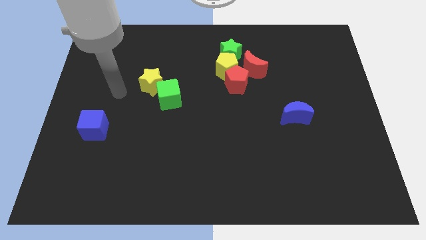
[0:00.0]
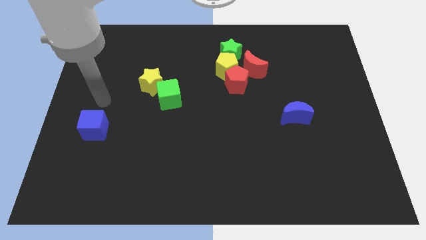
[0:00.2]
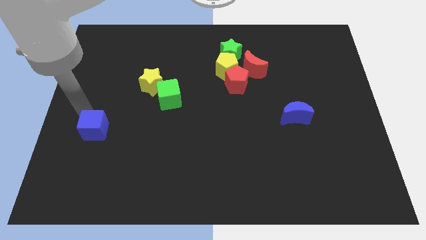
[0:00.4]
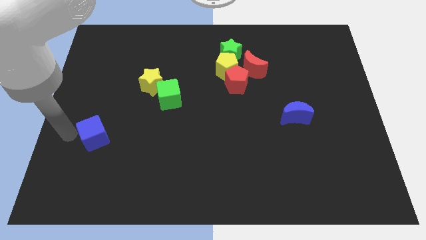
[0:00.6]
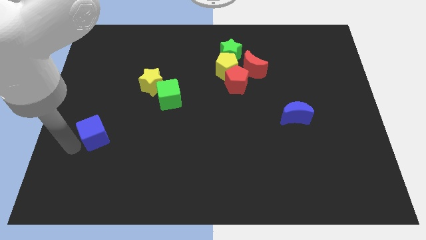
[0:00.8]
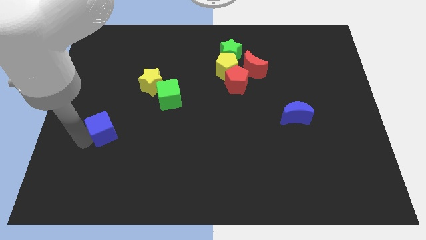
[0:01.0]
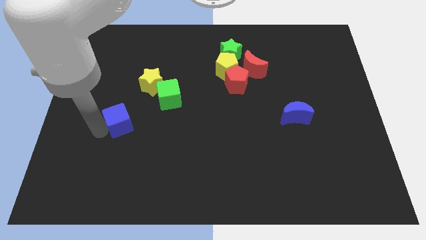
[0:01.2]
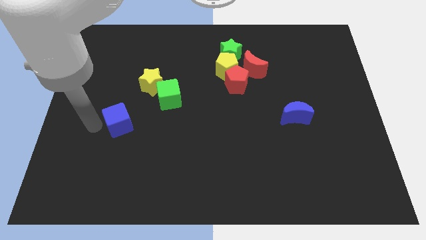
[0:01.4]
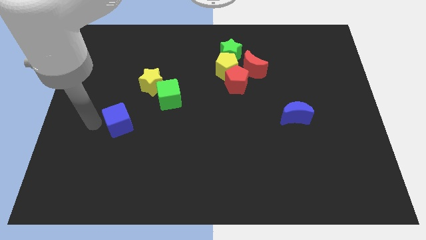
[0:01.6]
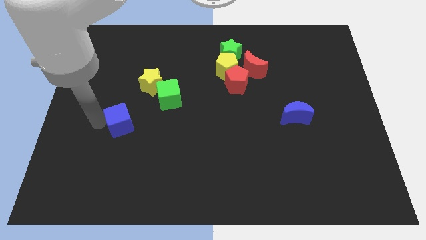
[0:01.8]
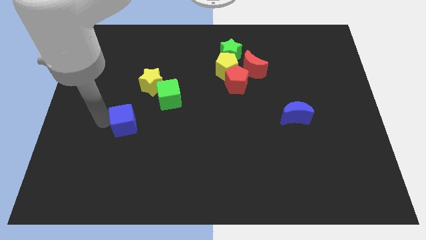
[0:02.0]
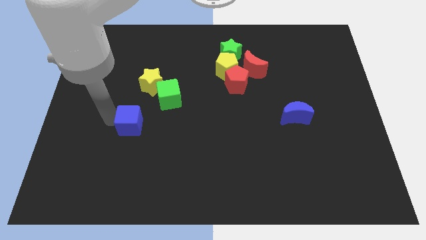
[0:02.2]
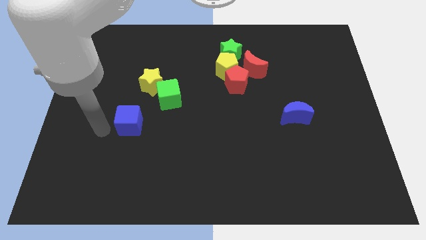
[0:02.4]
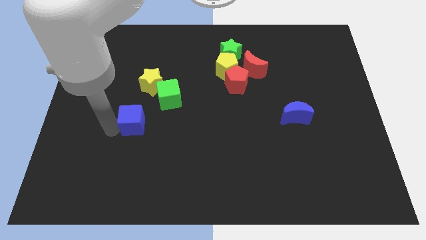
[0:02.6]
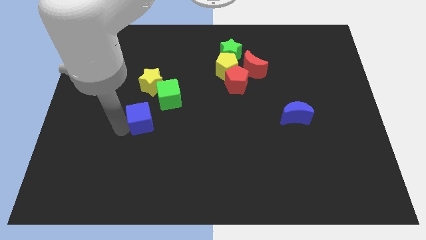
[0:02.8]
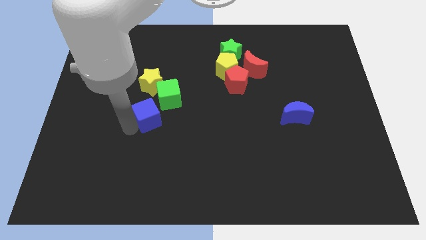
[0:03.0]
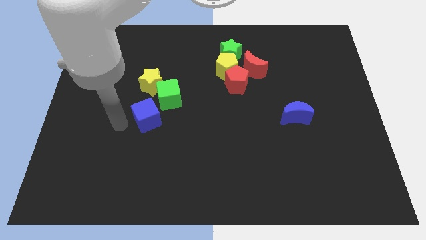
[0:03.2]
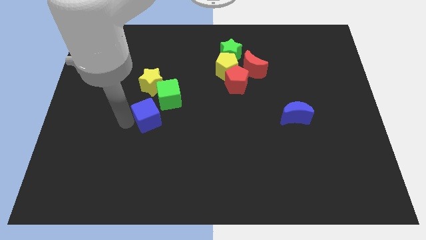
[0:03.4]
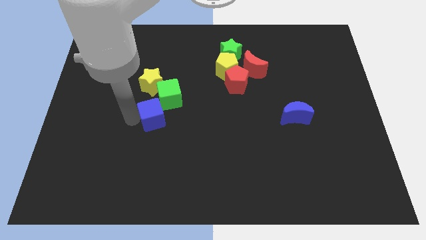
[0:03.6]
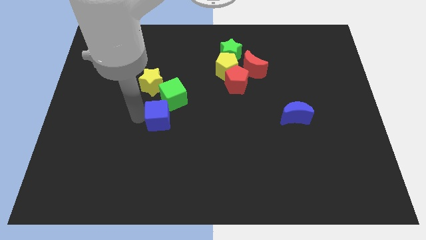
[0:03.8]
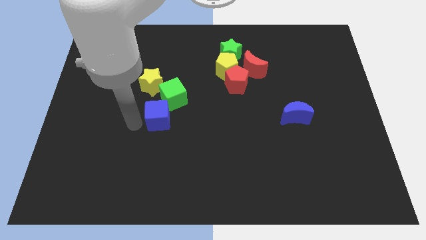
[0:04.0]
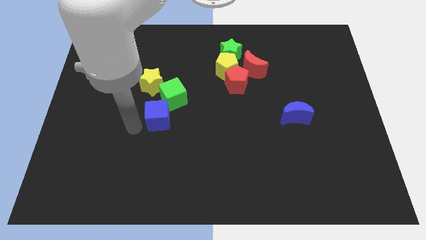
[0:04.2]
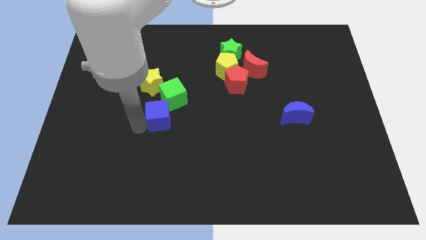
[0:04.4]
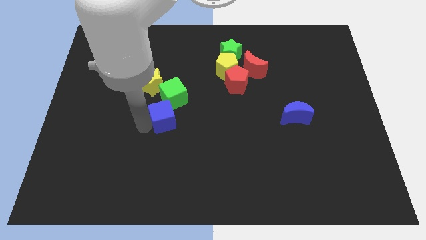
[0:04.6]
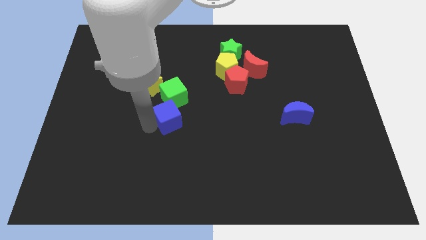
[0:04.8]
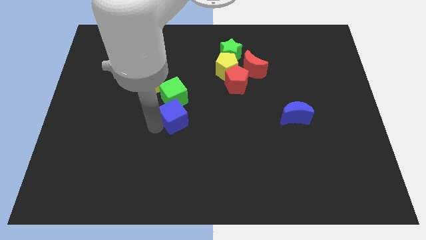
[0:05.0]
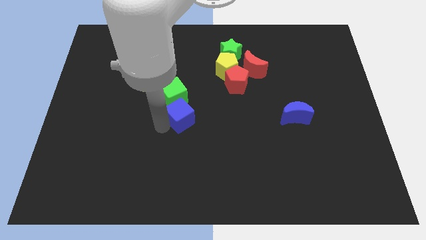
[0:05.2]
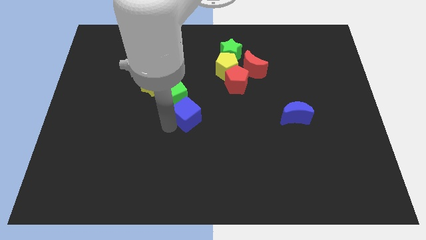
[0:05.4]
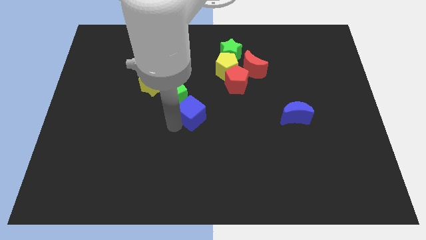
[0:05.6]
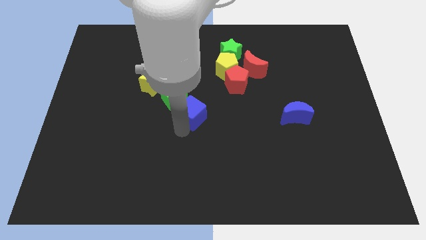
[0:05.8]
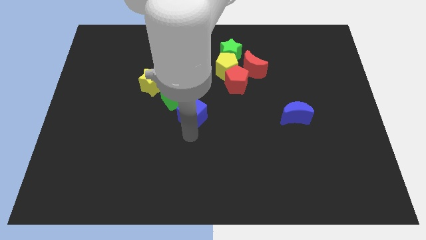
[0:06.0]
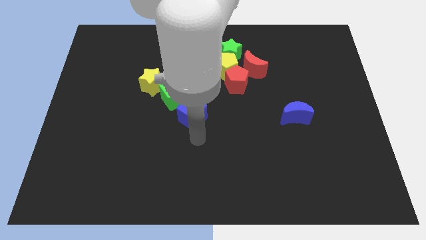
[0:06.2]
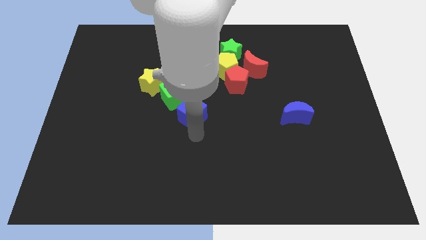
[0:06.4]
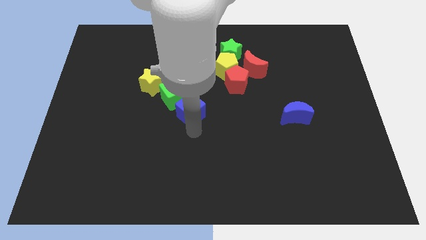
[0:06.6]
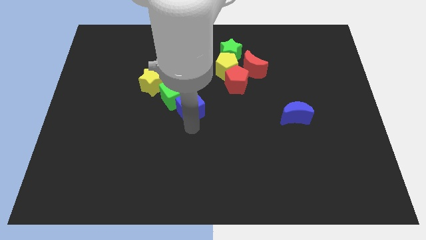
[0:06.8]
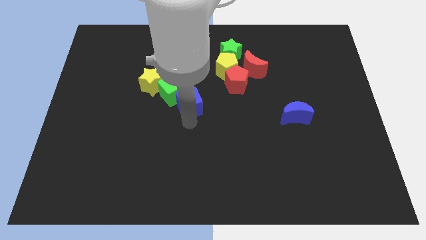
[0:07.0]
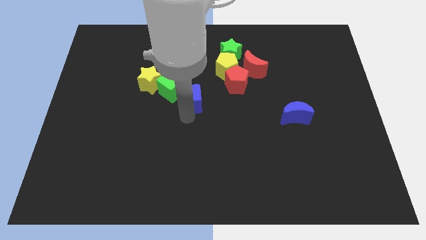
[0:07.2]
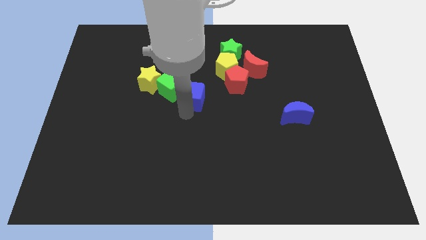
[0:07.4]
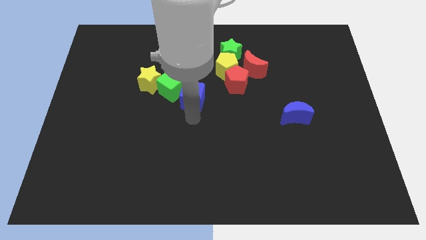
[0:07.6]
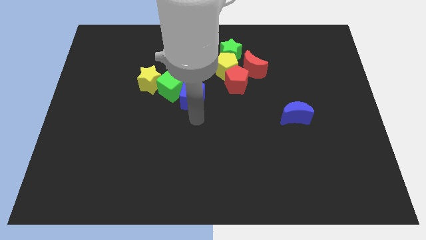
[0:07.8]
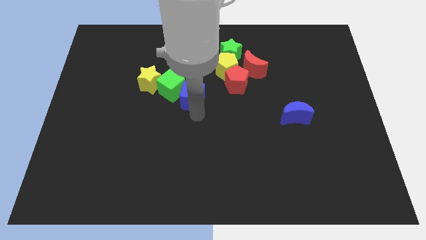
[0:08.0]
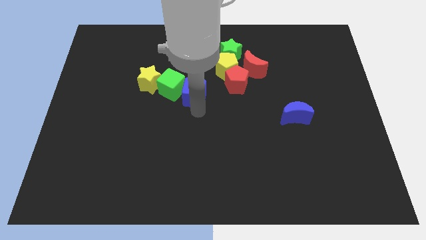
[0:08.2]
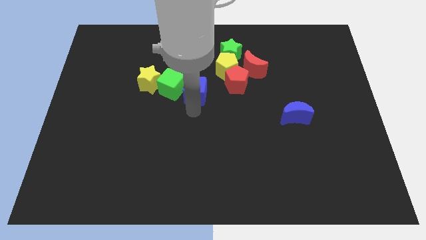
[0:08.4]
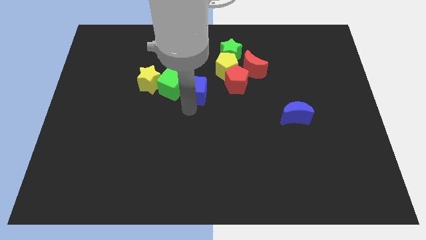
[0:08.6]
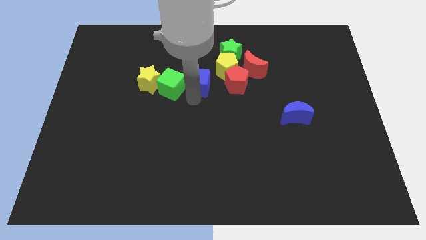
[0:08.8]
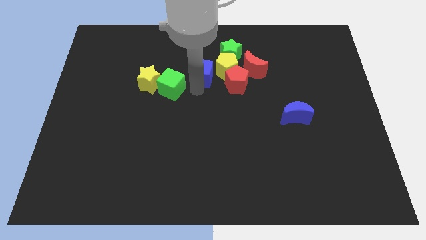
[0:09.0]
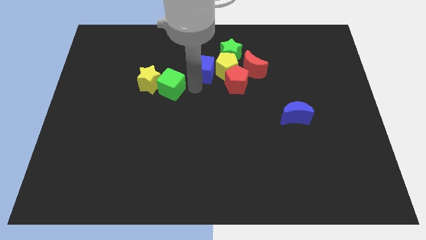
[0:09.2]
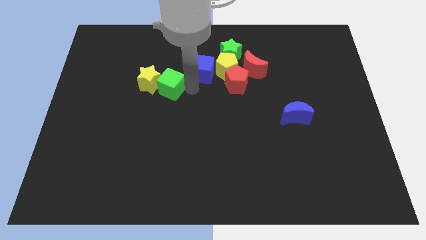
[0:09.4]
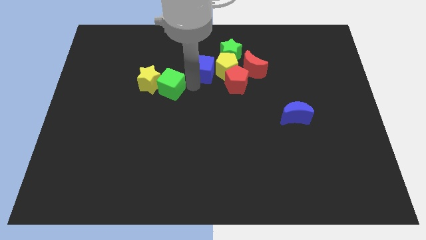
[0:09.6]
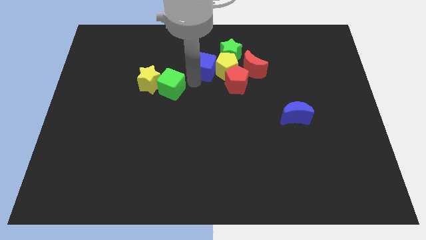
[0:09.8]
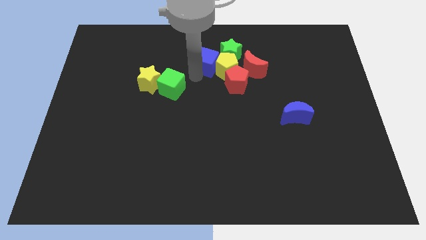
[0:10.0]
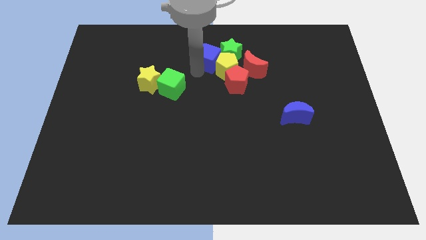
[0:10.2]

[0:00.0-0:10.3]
slide the blue cube to the green star

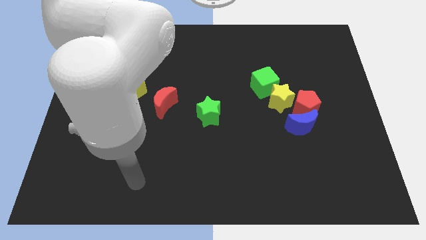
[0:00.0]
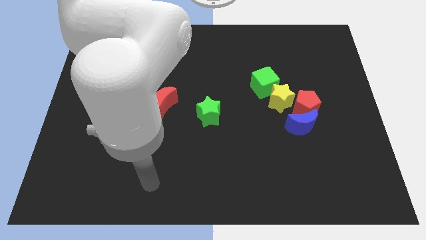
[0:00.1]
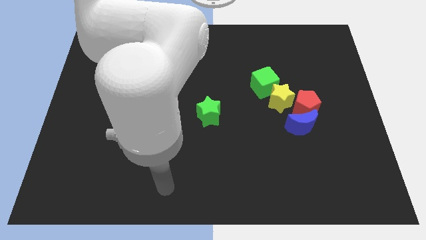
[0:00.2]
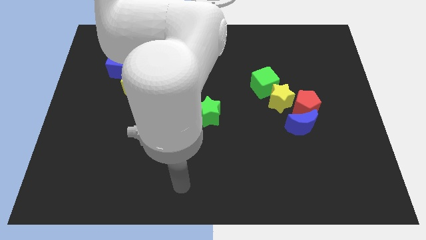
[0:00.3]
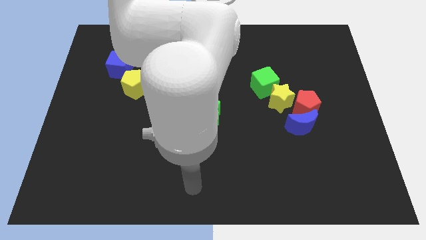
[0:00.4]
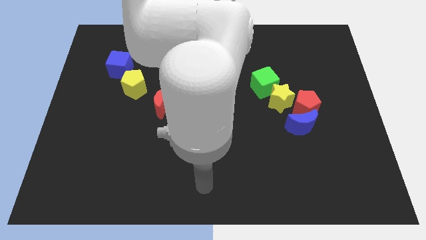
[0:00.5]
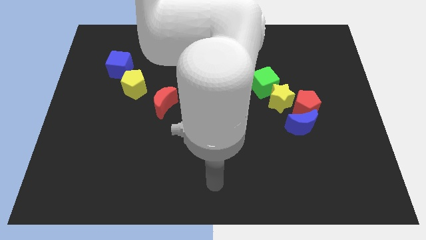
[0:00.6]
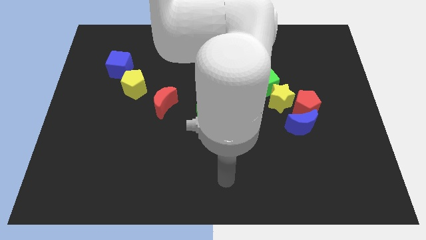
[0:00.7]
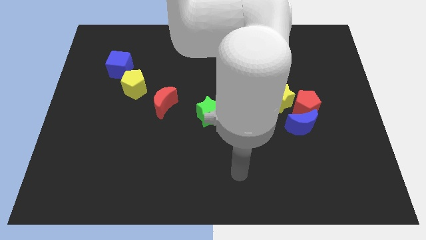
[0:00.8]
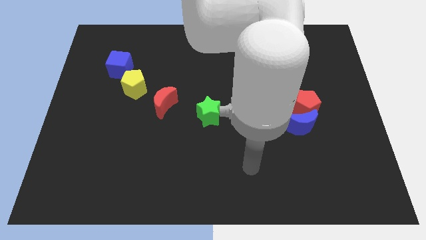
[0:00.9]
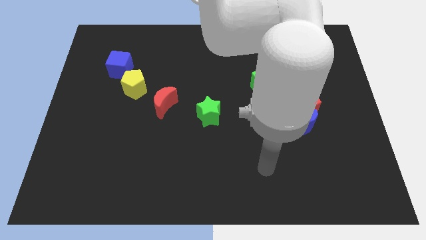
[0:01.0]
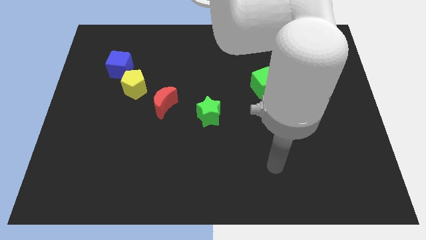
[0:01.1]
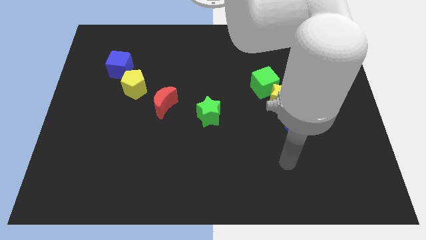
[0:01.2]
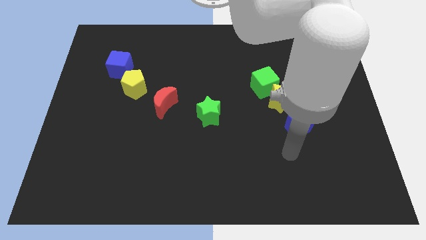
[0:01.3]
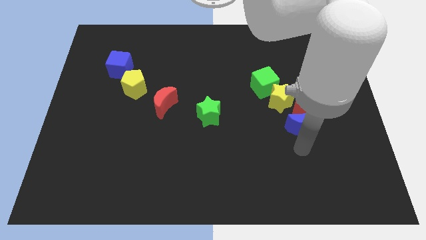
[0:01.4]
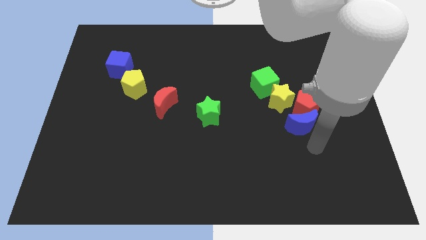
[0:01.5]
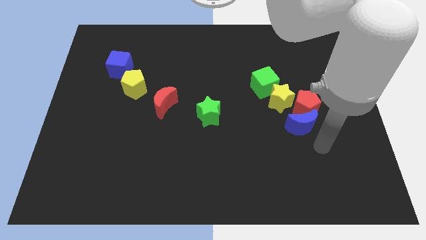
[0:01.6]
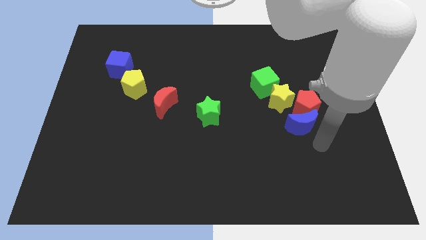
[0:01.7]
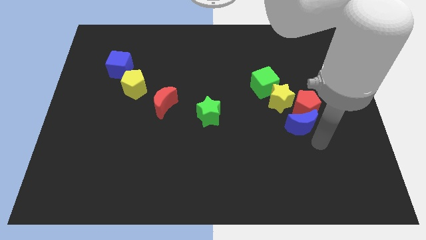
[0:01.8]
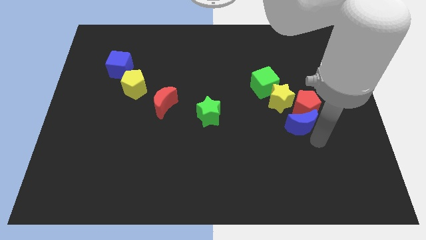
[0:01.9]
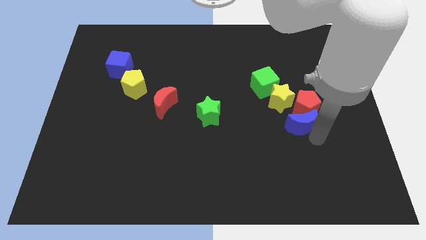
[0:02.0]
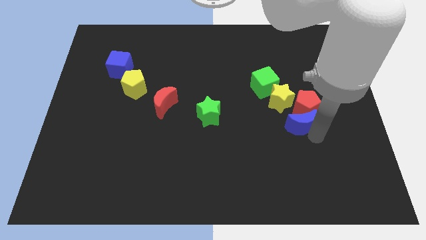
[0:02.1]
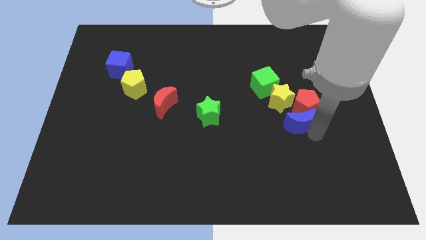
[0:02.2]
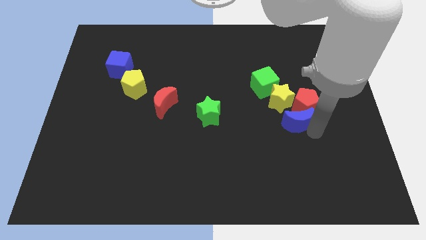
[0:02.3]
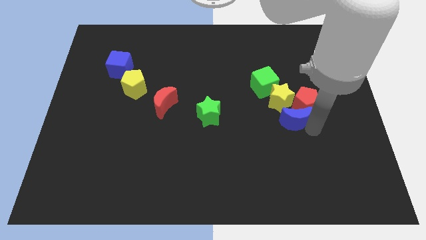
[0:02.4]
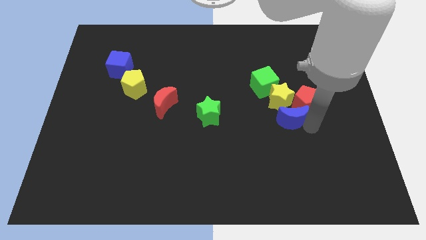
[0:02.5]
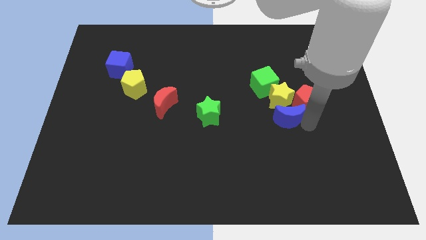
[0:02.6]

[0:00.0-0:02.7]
move the blue moon to the yellow star
